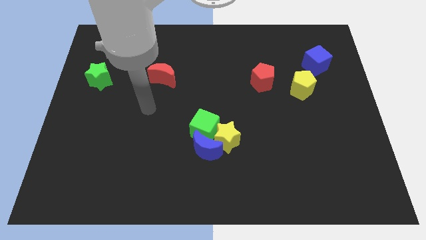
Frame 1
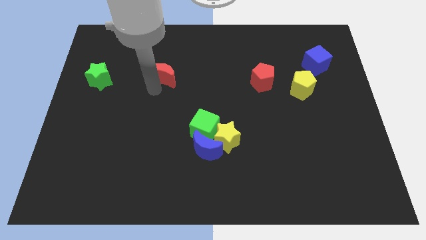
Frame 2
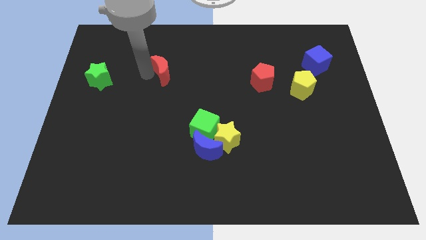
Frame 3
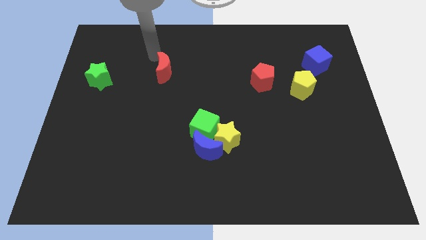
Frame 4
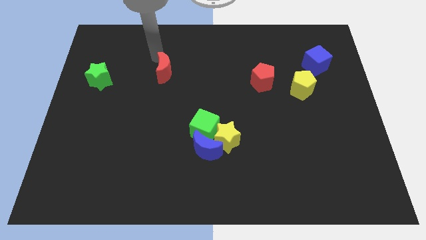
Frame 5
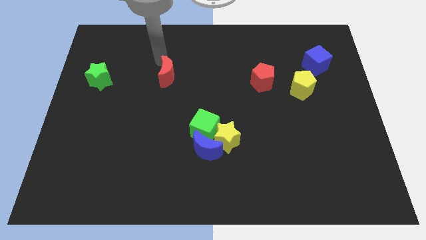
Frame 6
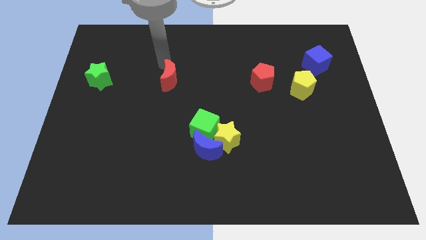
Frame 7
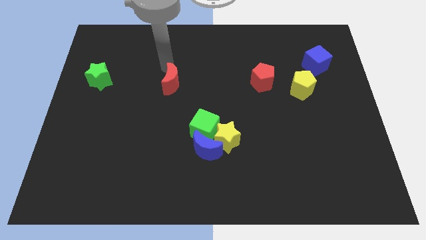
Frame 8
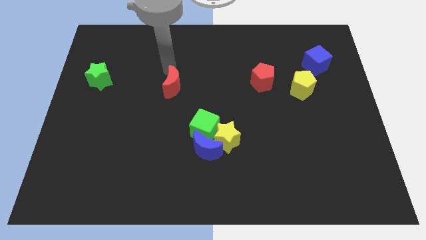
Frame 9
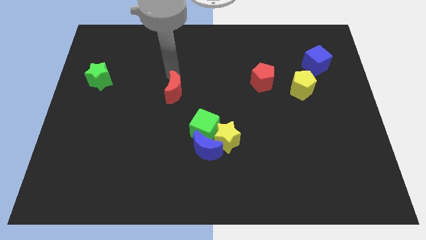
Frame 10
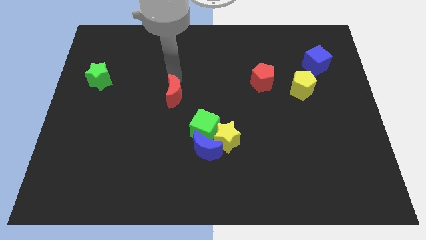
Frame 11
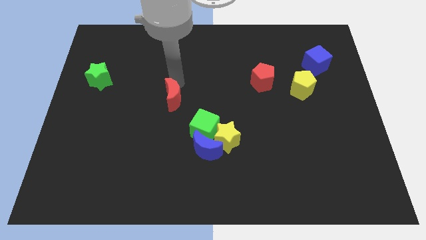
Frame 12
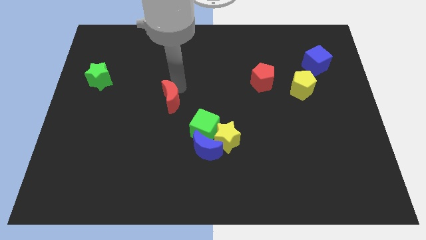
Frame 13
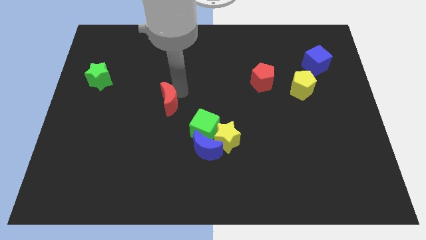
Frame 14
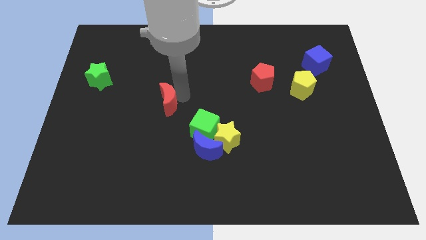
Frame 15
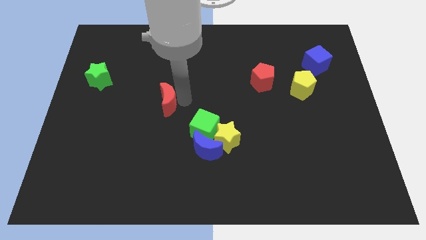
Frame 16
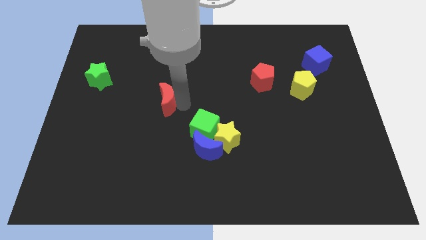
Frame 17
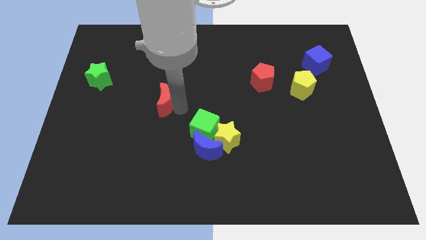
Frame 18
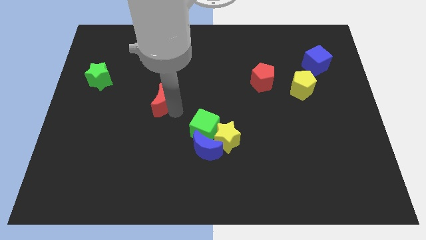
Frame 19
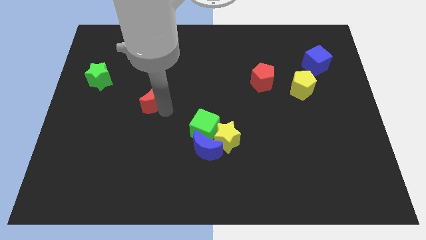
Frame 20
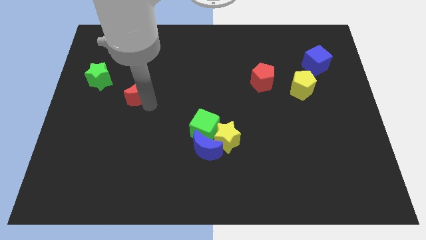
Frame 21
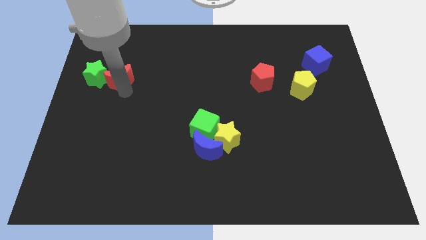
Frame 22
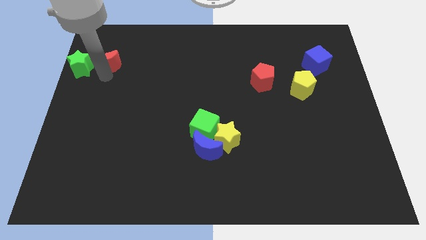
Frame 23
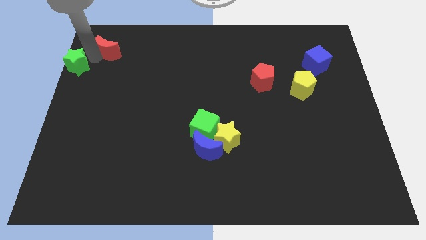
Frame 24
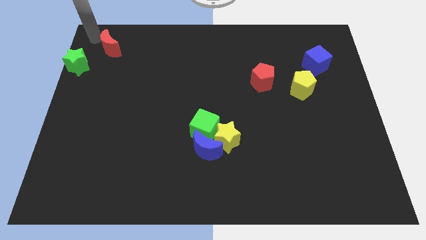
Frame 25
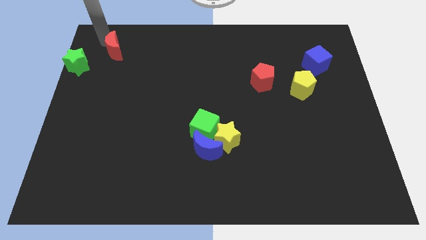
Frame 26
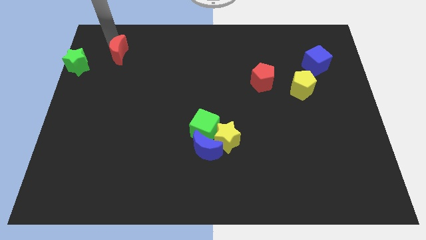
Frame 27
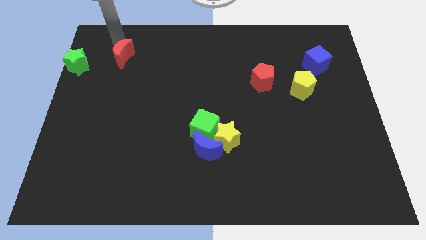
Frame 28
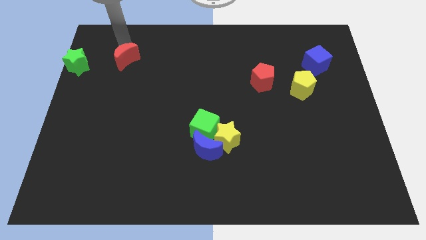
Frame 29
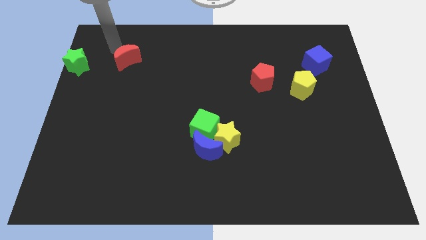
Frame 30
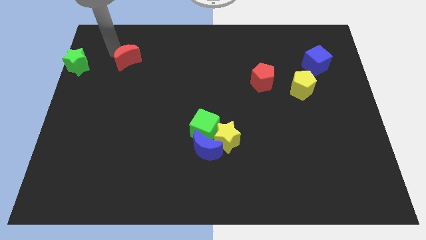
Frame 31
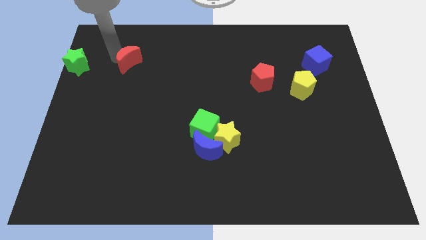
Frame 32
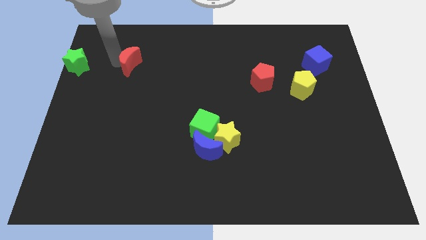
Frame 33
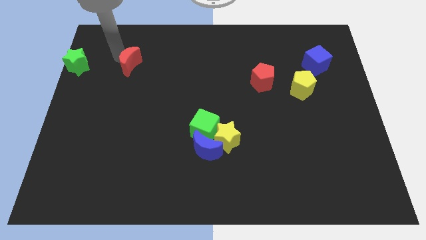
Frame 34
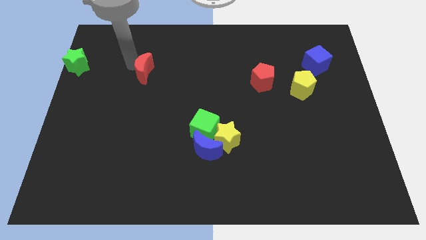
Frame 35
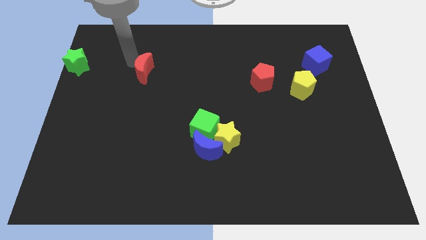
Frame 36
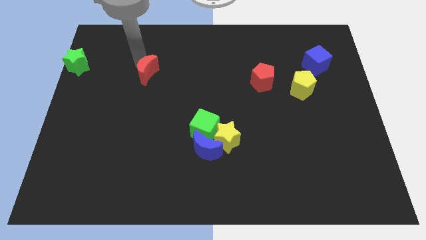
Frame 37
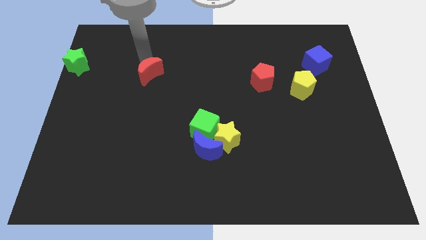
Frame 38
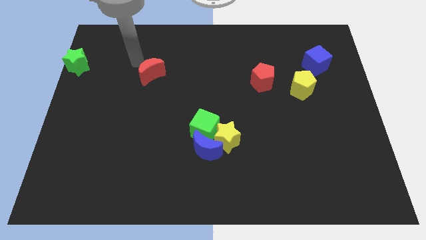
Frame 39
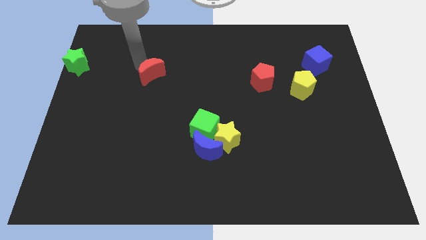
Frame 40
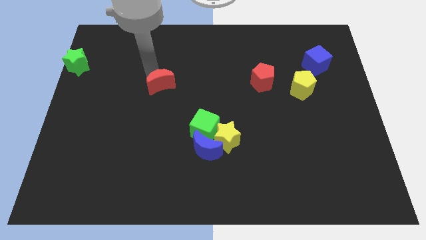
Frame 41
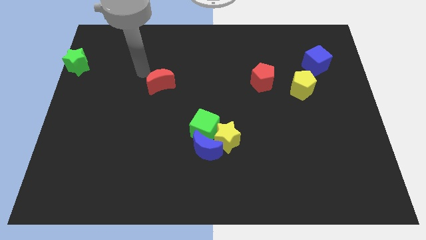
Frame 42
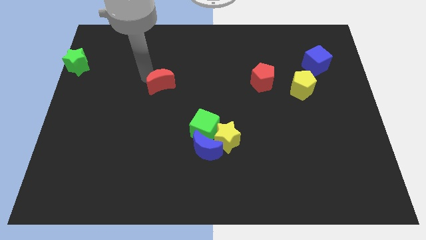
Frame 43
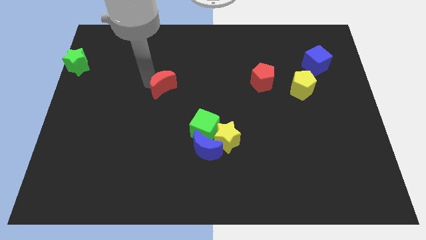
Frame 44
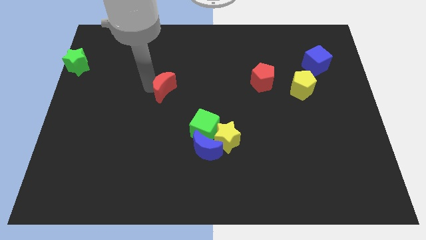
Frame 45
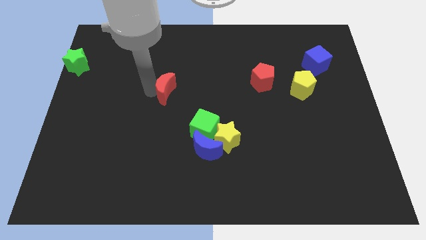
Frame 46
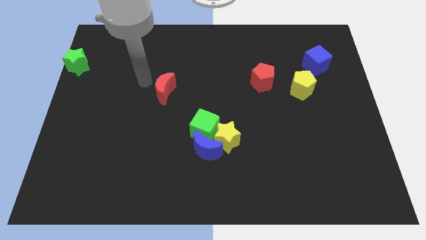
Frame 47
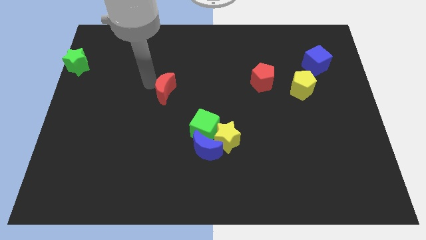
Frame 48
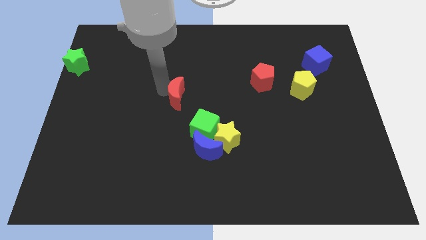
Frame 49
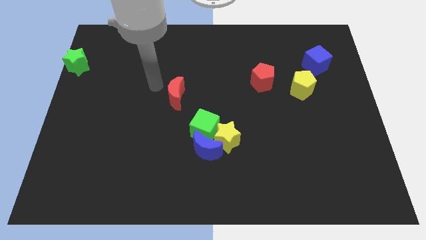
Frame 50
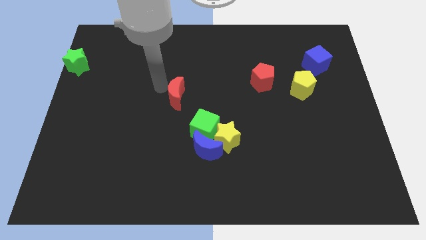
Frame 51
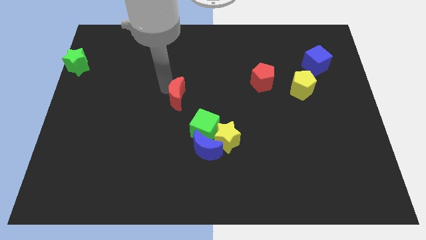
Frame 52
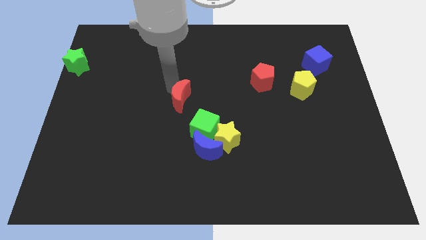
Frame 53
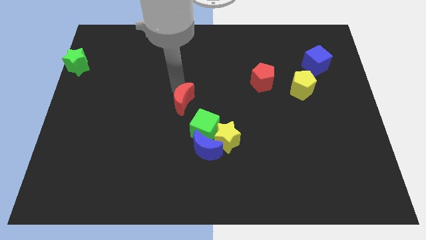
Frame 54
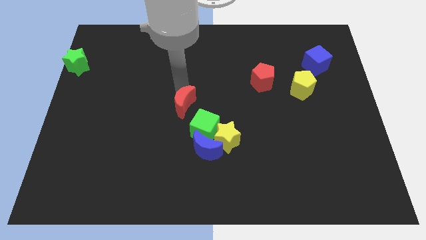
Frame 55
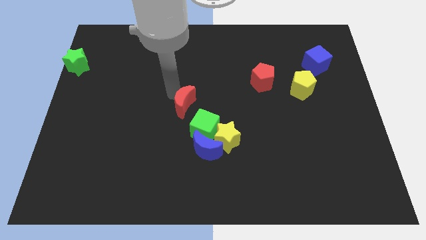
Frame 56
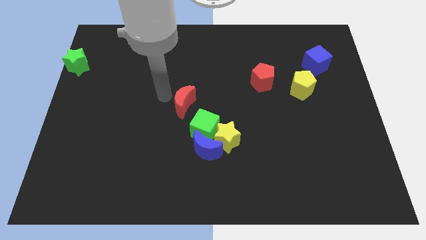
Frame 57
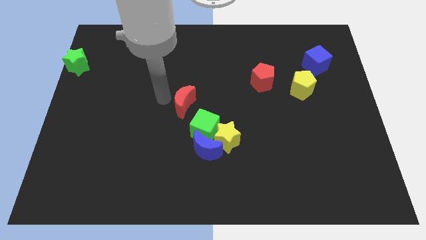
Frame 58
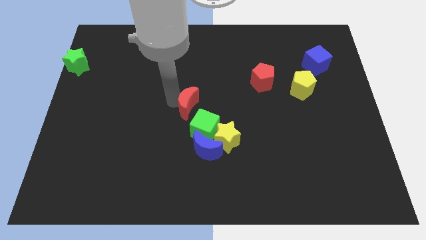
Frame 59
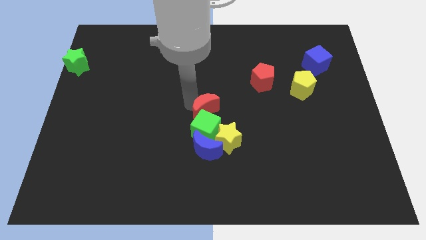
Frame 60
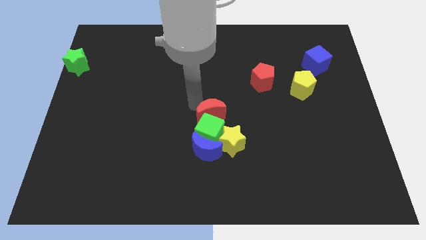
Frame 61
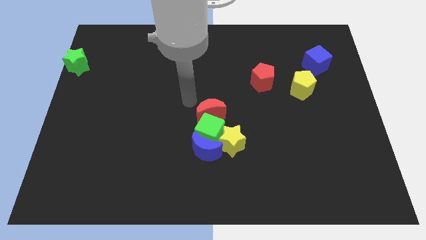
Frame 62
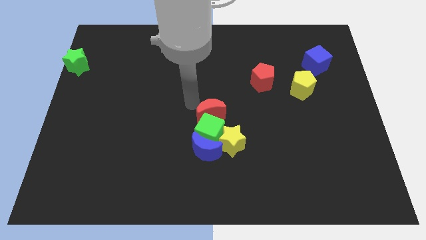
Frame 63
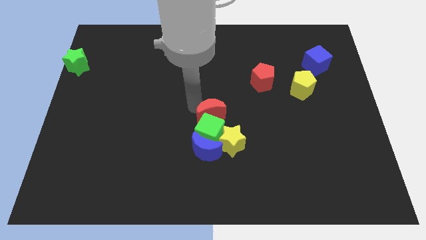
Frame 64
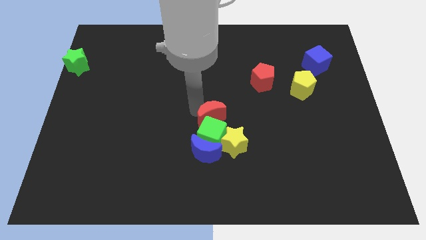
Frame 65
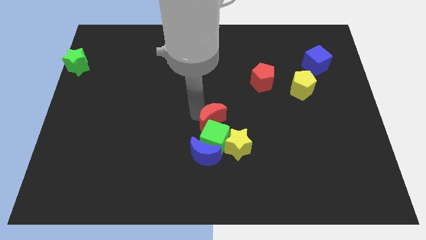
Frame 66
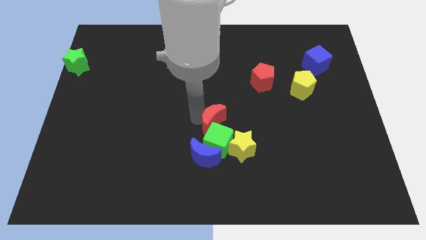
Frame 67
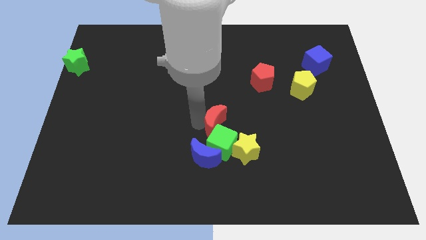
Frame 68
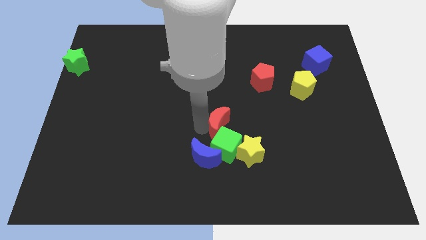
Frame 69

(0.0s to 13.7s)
move the red moon diagonally down and to the right

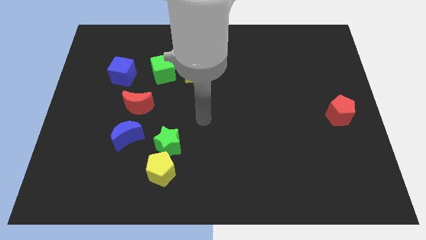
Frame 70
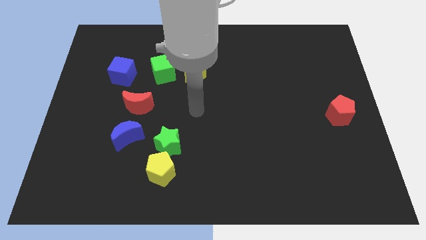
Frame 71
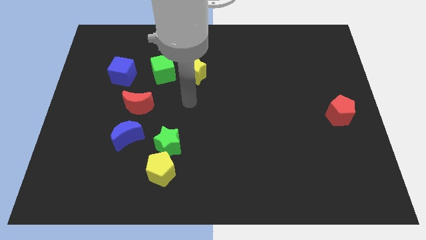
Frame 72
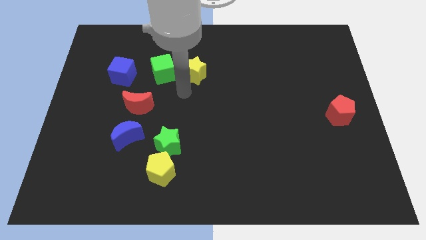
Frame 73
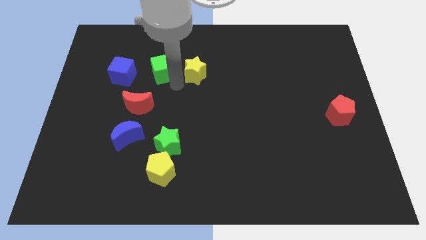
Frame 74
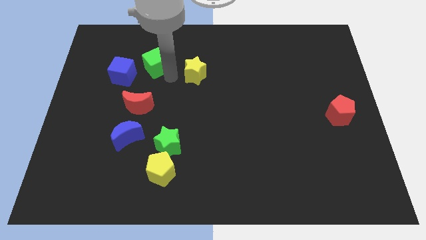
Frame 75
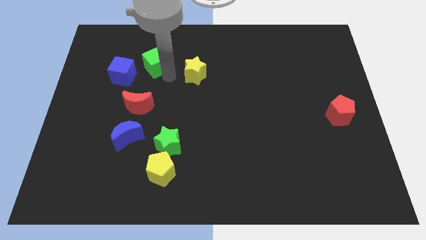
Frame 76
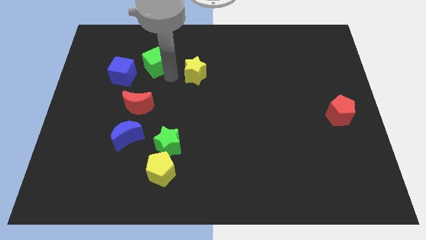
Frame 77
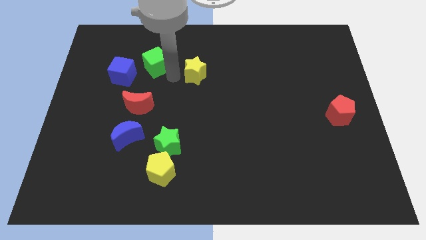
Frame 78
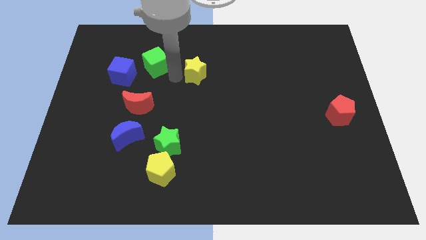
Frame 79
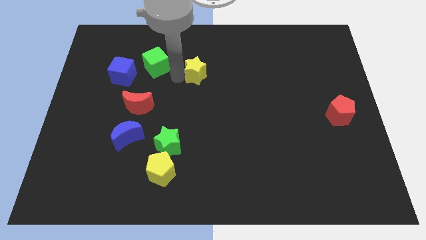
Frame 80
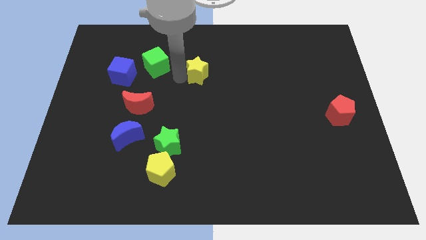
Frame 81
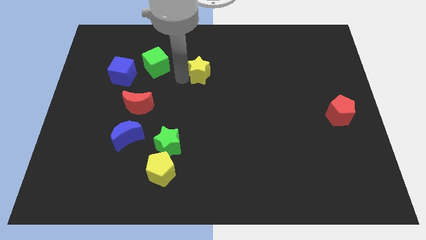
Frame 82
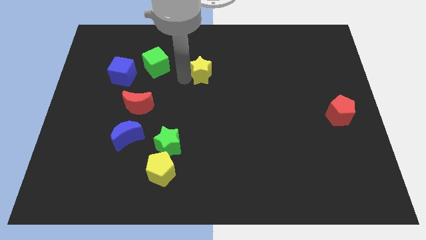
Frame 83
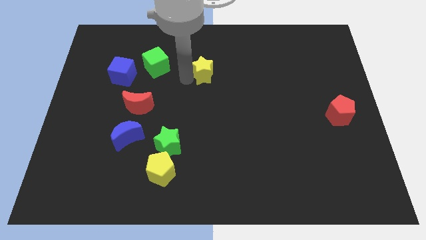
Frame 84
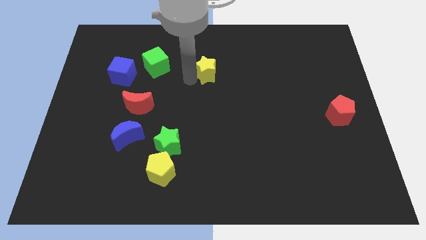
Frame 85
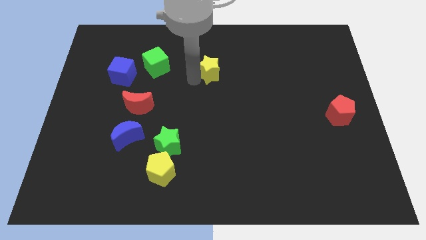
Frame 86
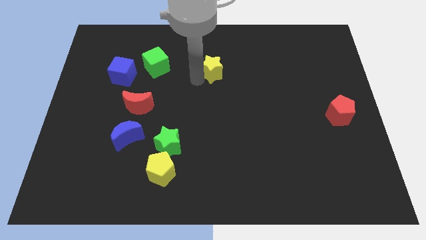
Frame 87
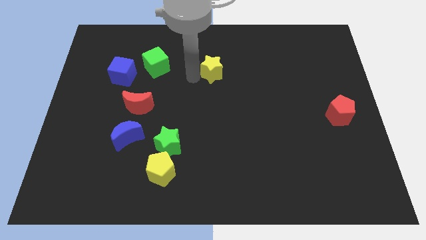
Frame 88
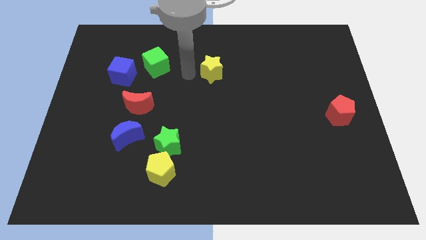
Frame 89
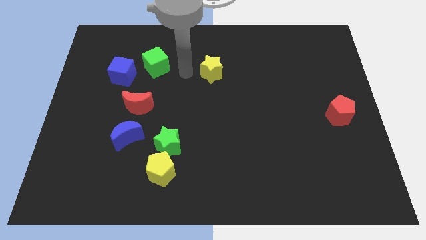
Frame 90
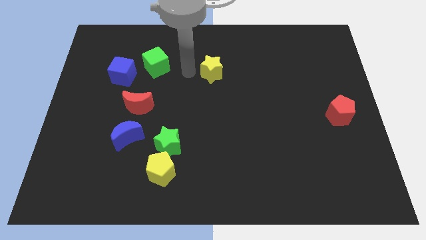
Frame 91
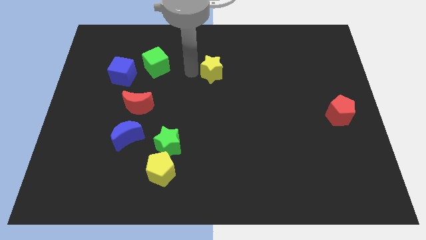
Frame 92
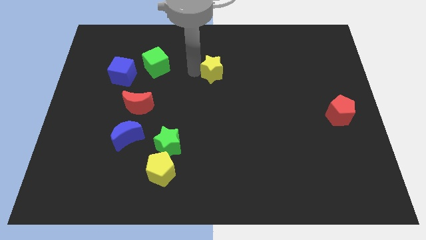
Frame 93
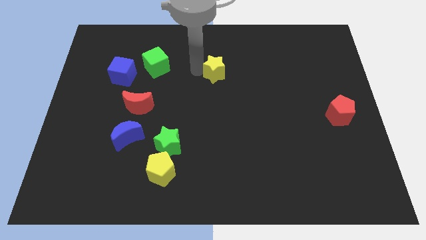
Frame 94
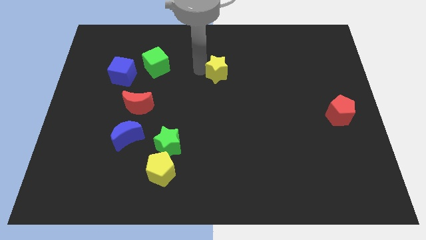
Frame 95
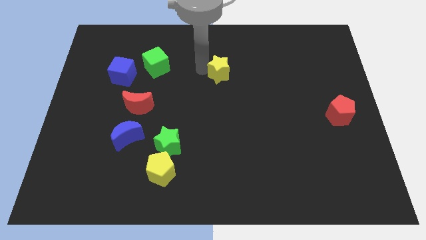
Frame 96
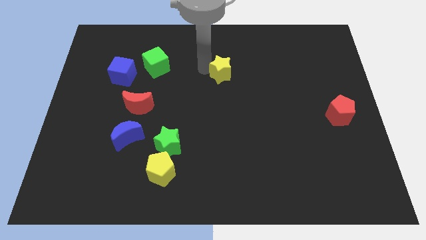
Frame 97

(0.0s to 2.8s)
slightly slide the yellow star to the right
